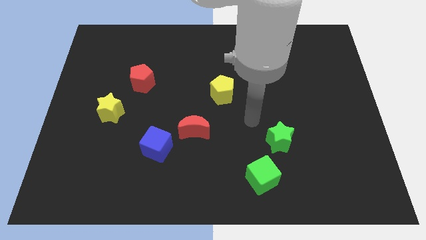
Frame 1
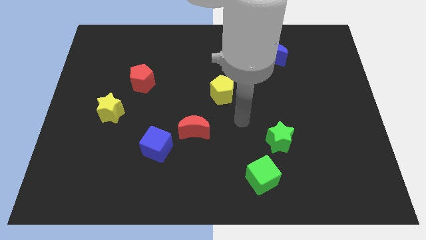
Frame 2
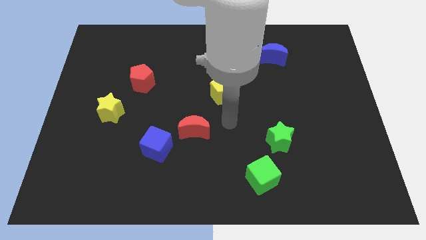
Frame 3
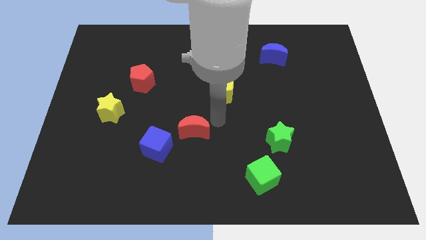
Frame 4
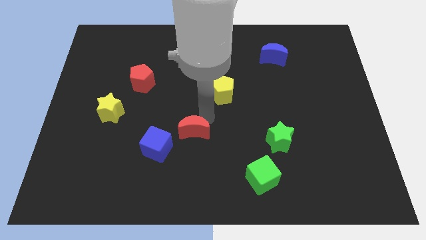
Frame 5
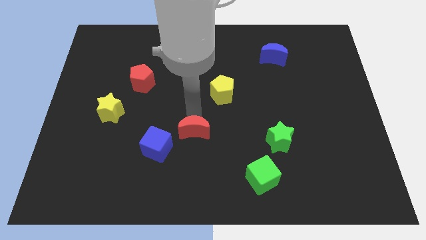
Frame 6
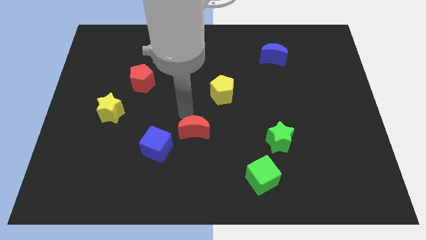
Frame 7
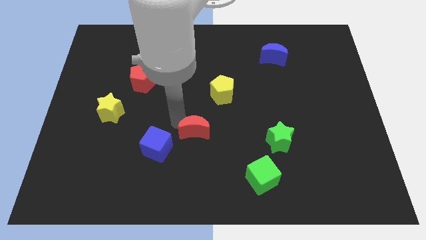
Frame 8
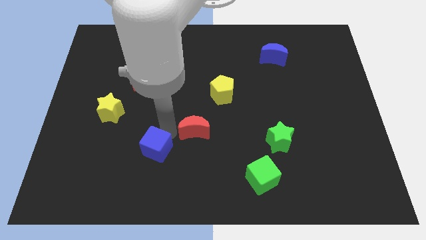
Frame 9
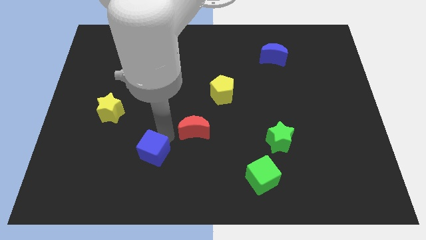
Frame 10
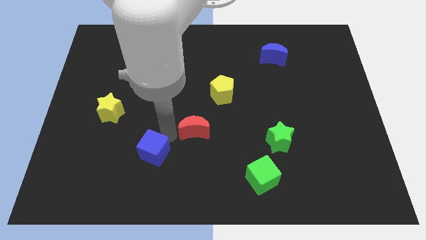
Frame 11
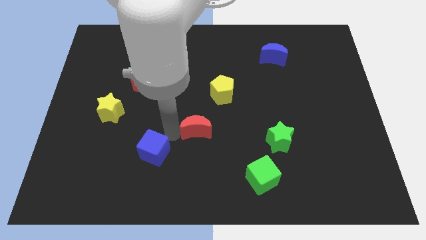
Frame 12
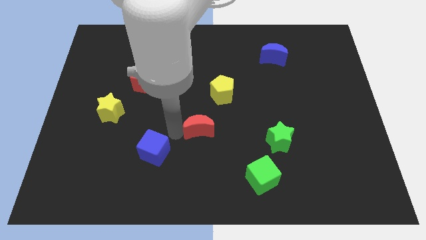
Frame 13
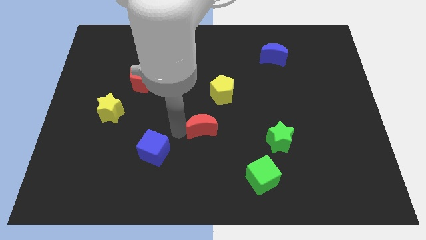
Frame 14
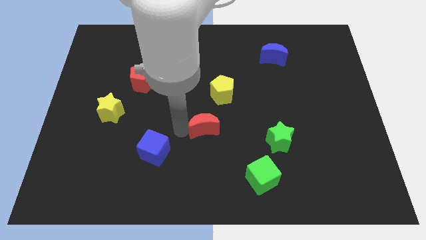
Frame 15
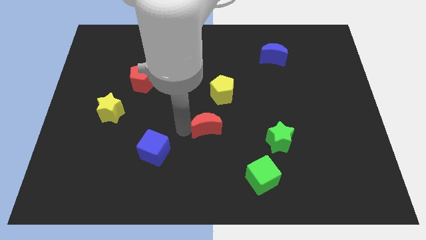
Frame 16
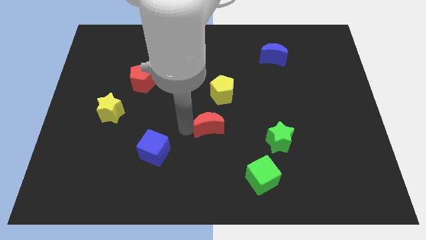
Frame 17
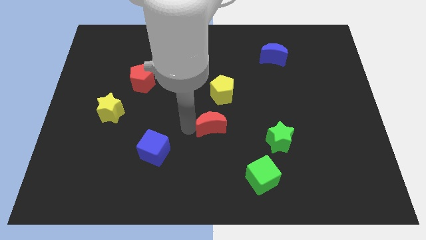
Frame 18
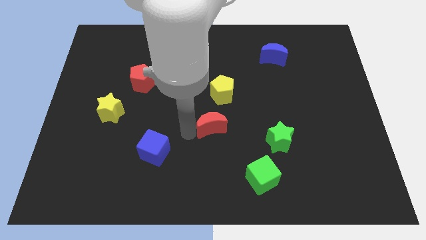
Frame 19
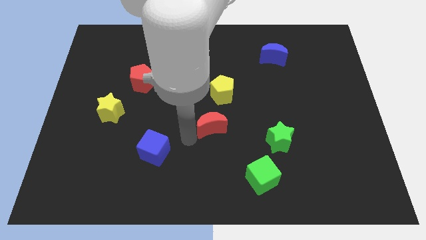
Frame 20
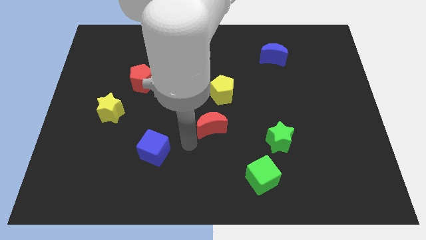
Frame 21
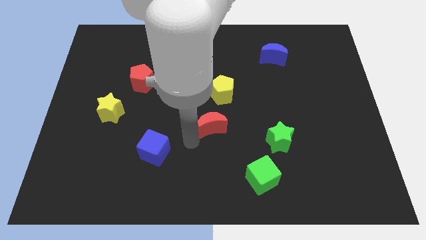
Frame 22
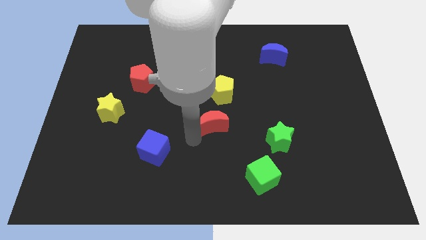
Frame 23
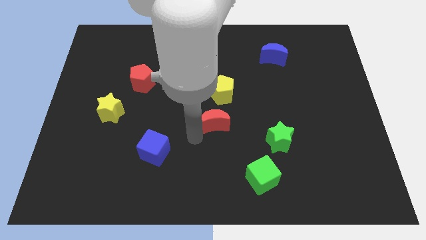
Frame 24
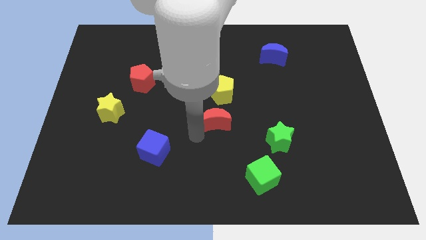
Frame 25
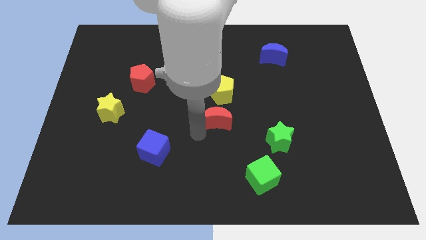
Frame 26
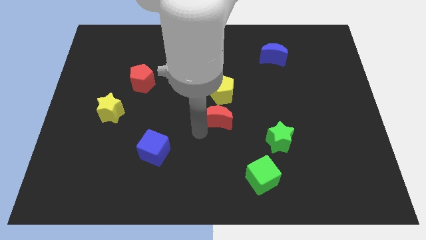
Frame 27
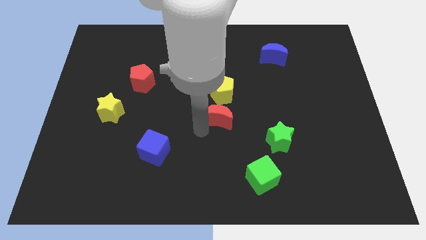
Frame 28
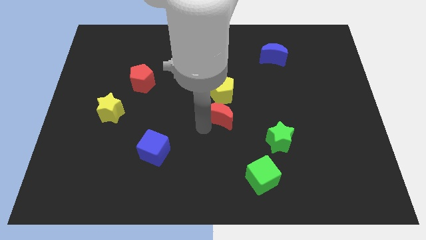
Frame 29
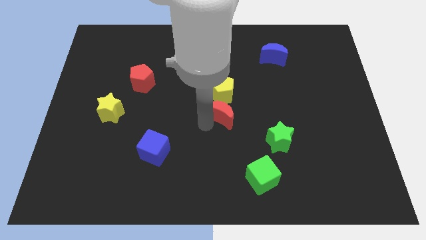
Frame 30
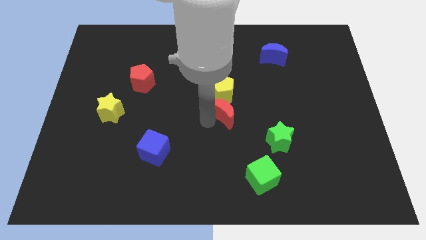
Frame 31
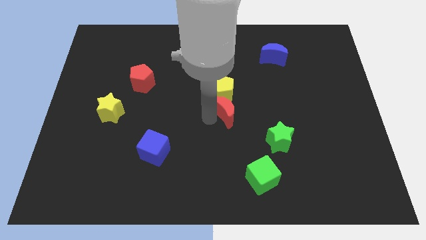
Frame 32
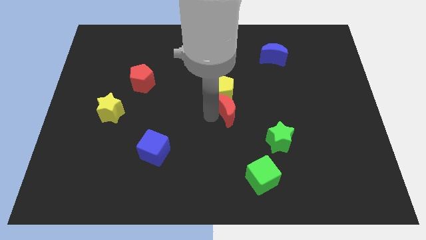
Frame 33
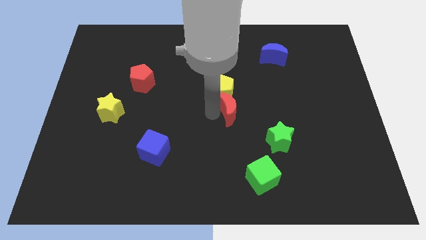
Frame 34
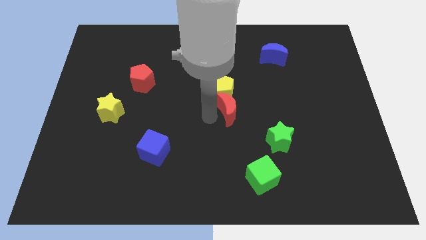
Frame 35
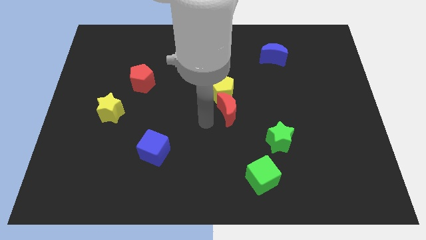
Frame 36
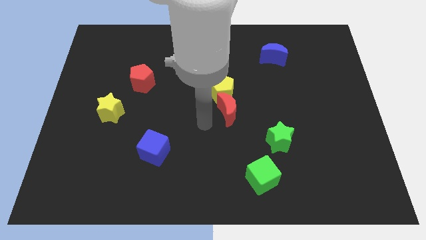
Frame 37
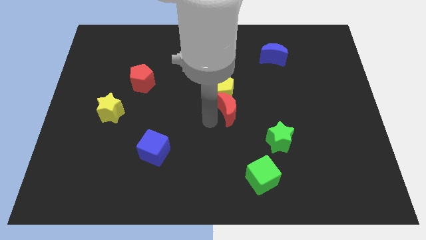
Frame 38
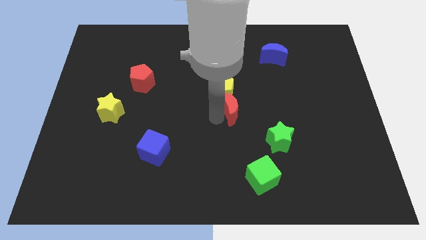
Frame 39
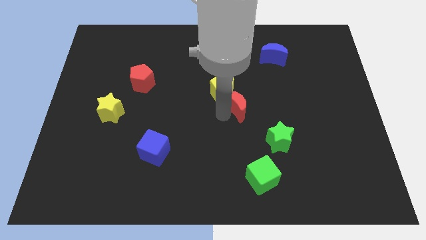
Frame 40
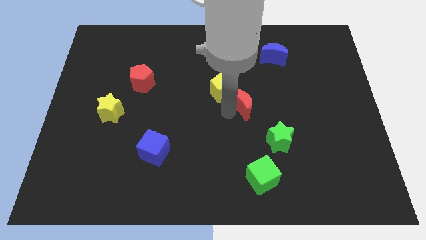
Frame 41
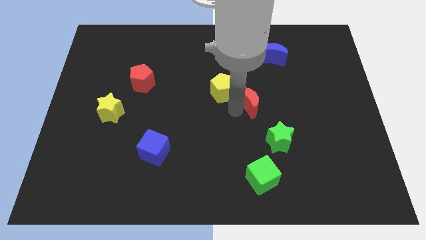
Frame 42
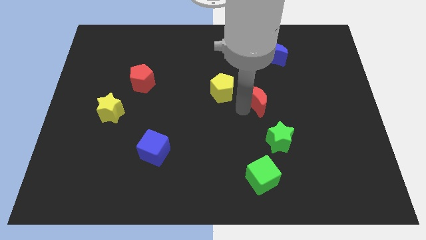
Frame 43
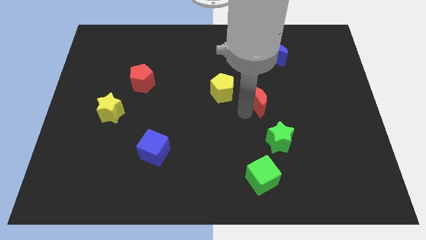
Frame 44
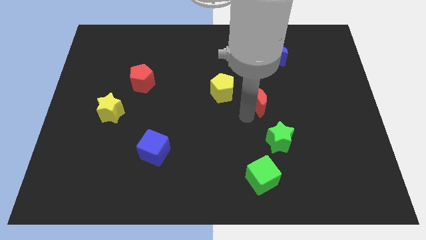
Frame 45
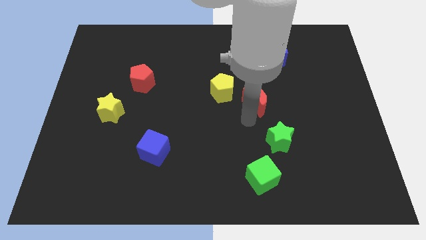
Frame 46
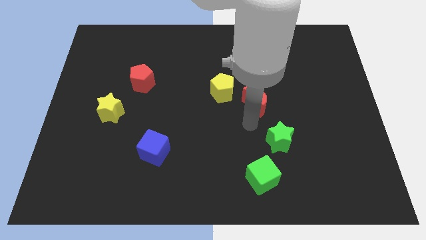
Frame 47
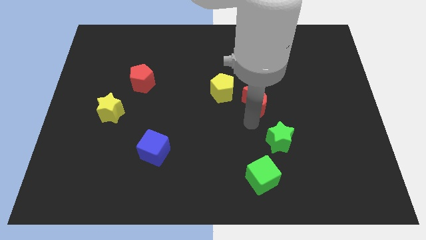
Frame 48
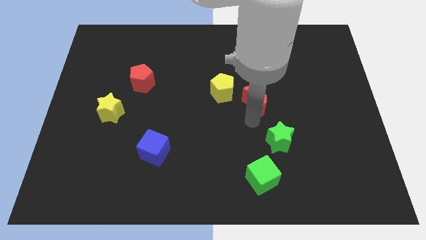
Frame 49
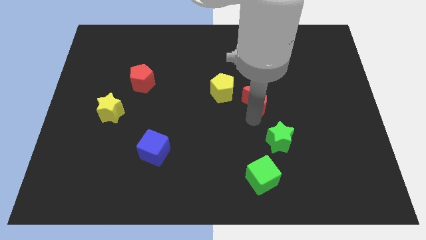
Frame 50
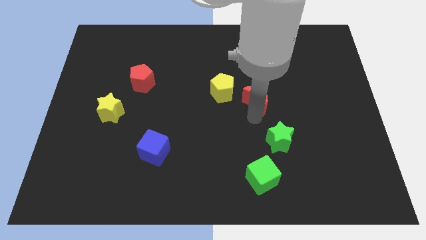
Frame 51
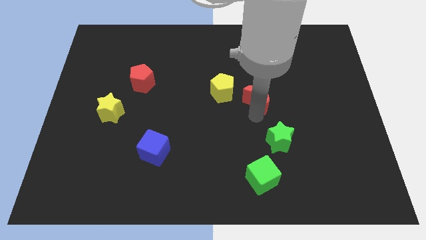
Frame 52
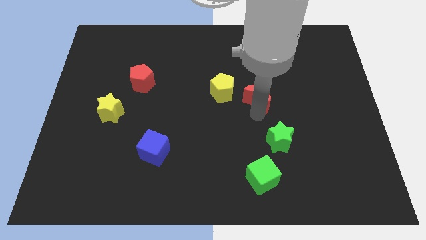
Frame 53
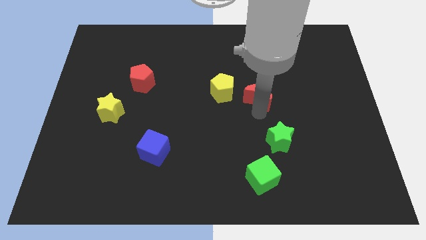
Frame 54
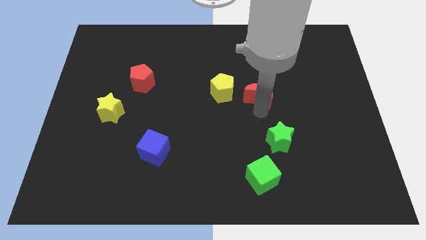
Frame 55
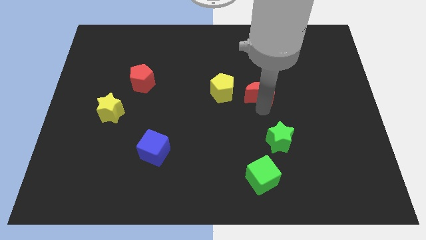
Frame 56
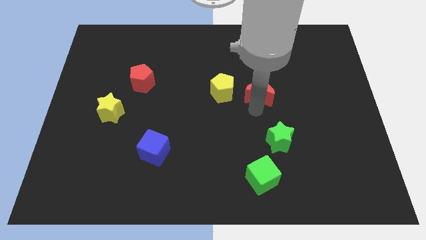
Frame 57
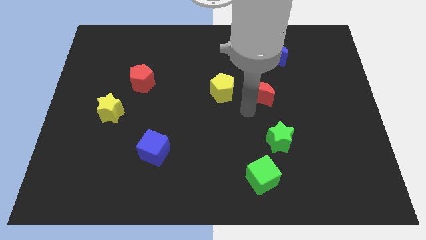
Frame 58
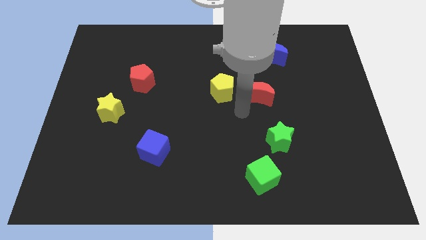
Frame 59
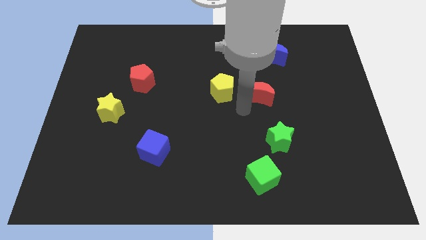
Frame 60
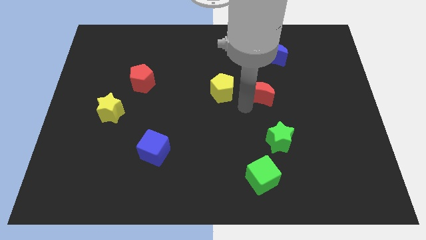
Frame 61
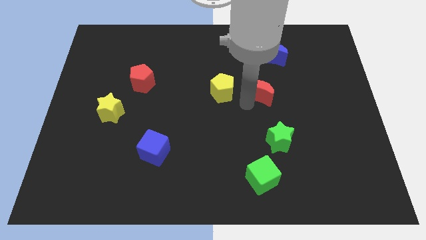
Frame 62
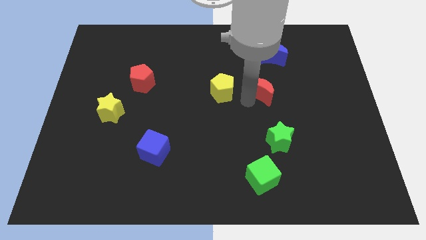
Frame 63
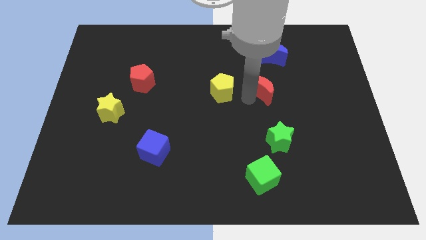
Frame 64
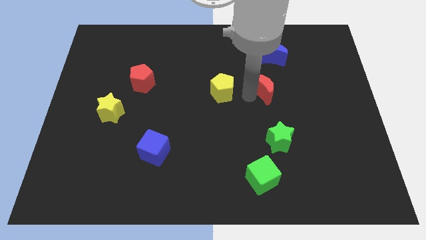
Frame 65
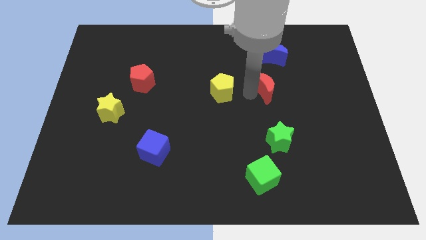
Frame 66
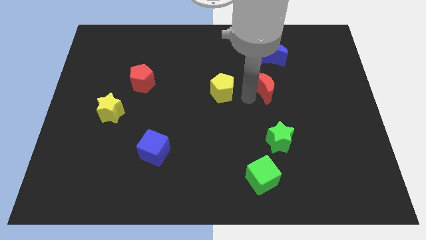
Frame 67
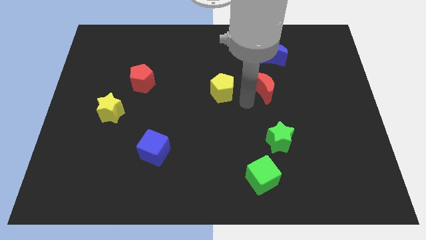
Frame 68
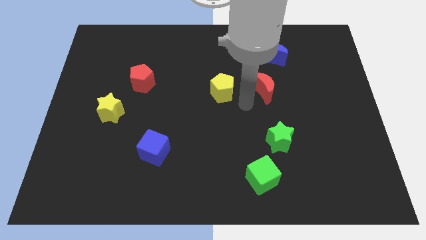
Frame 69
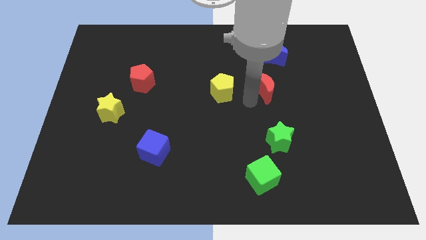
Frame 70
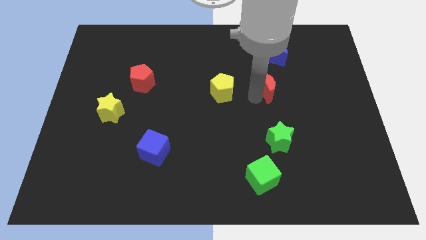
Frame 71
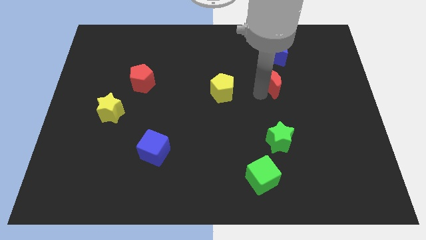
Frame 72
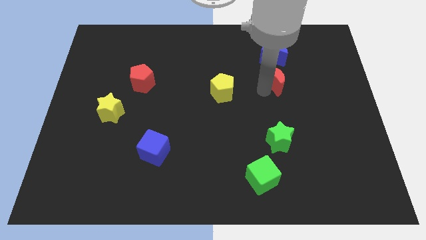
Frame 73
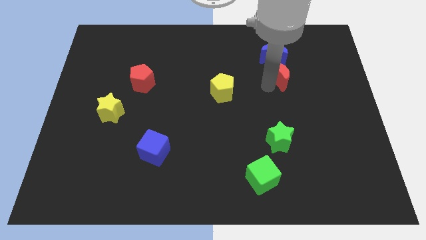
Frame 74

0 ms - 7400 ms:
put the red moon to the bottom right side of the blue moon

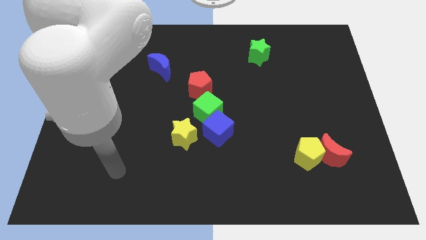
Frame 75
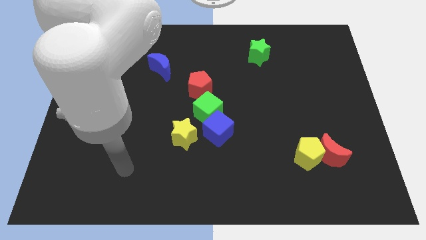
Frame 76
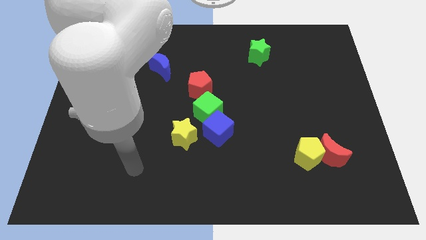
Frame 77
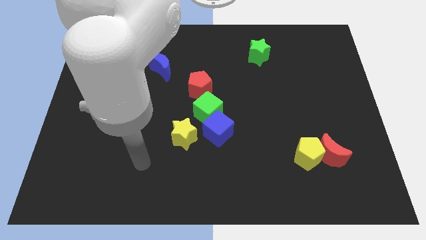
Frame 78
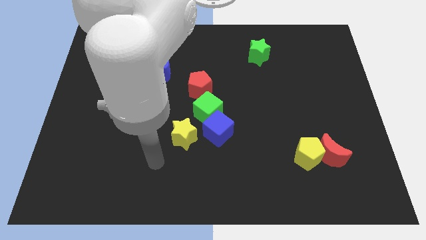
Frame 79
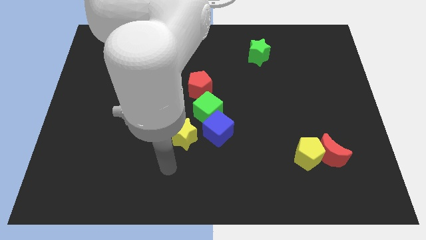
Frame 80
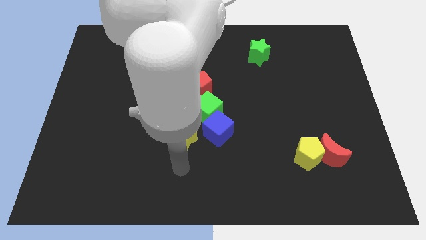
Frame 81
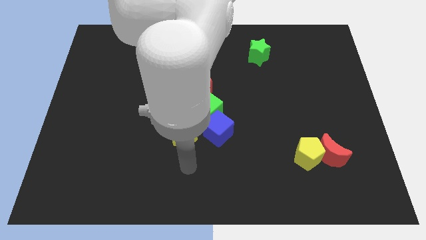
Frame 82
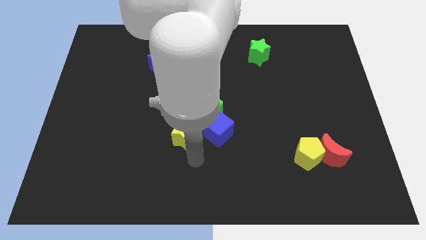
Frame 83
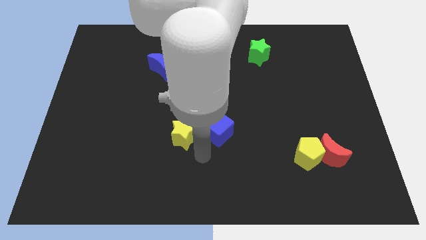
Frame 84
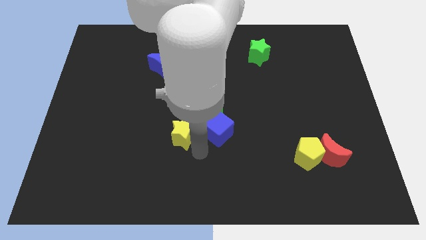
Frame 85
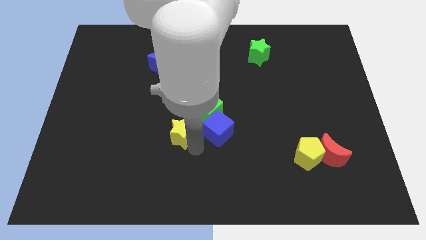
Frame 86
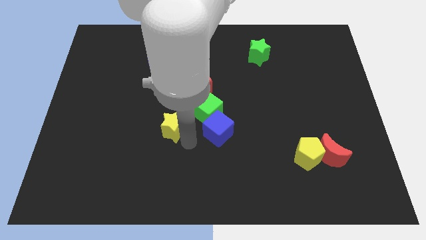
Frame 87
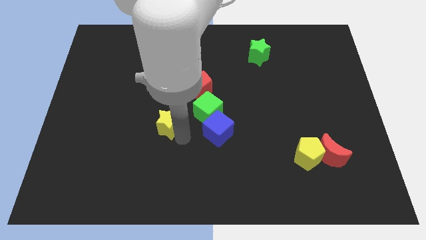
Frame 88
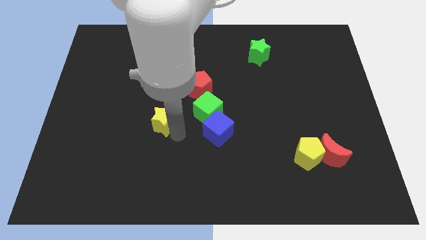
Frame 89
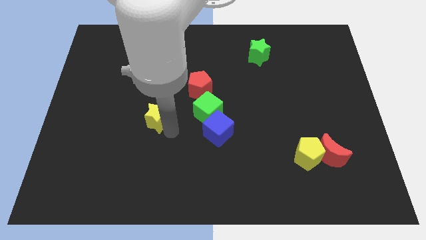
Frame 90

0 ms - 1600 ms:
move the yellow star to the bottom of the blue moon
